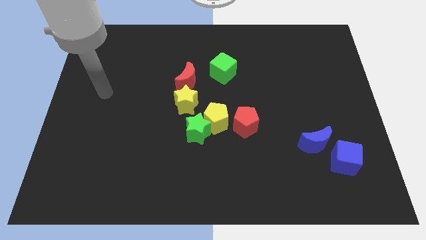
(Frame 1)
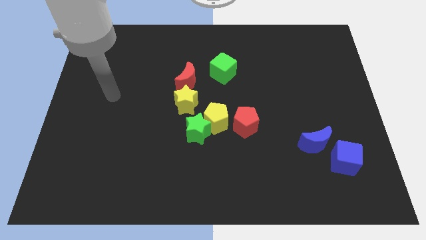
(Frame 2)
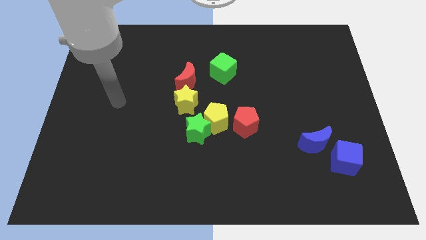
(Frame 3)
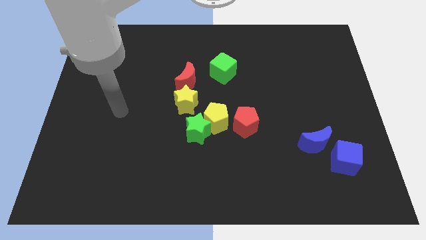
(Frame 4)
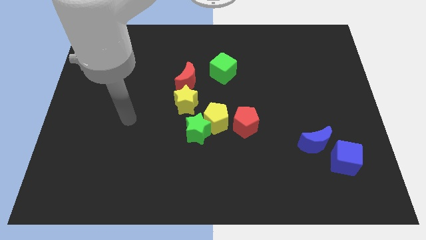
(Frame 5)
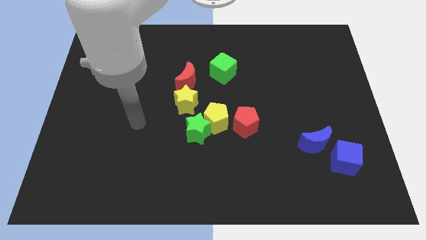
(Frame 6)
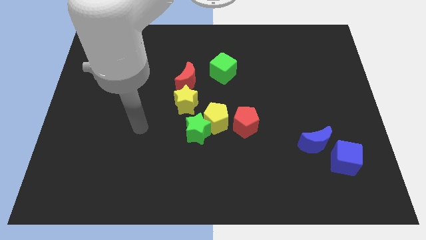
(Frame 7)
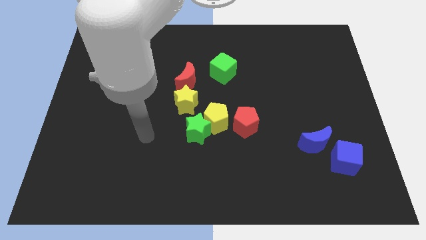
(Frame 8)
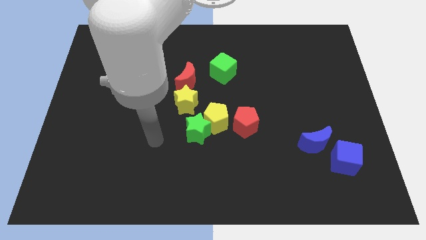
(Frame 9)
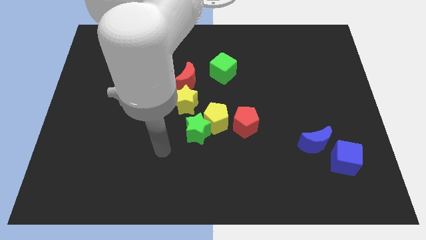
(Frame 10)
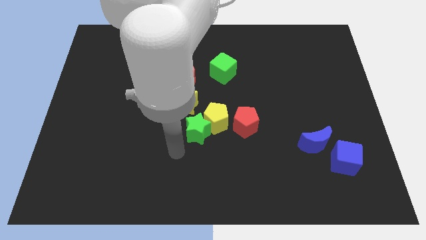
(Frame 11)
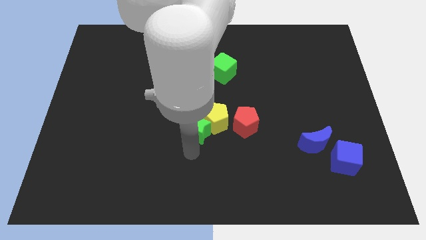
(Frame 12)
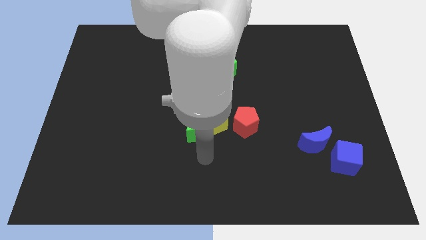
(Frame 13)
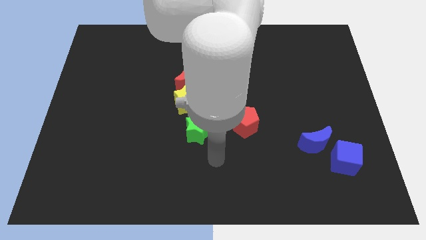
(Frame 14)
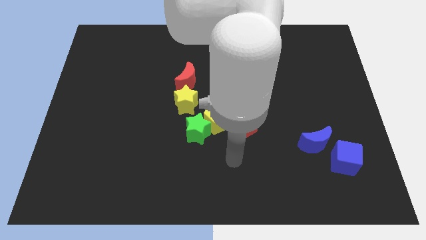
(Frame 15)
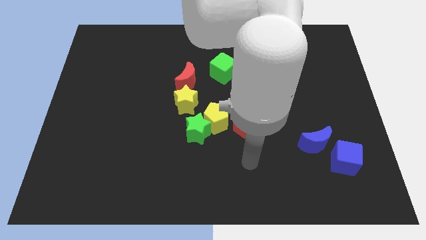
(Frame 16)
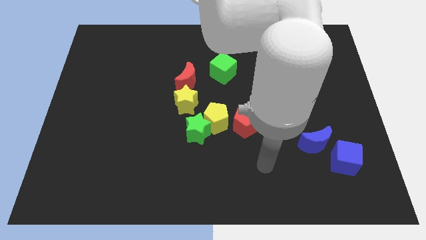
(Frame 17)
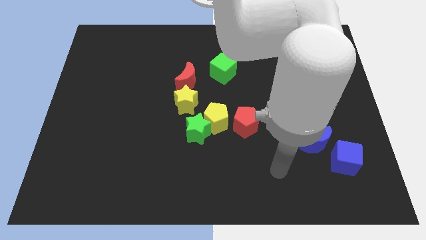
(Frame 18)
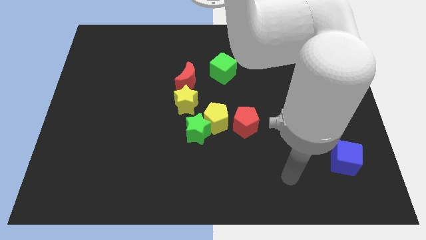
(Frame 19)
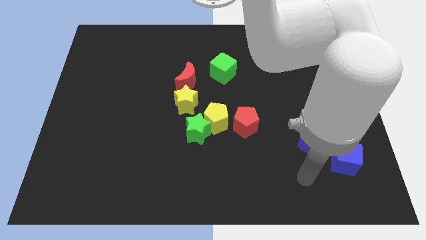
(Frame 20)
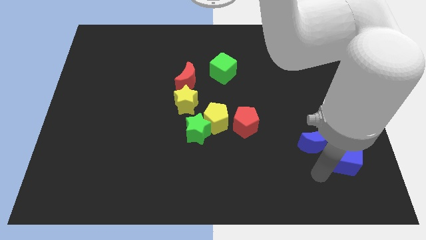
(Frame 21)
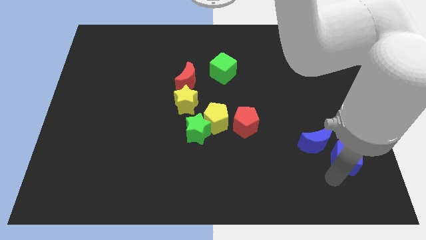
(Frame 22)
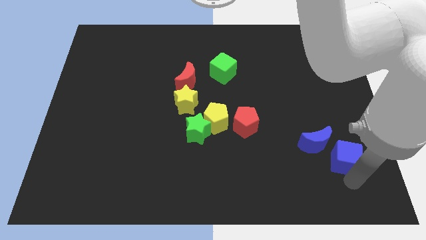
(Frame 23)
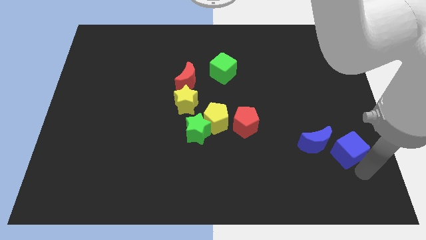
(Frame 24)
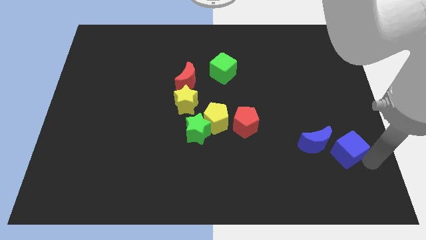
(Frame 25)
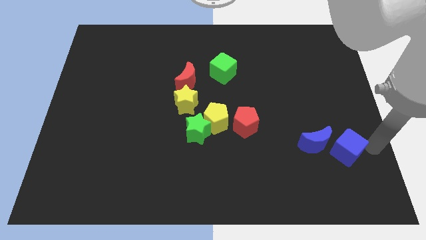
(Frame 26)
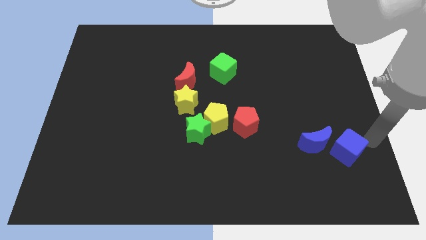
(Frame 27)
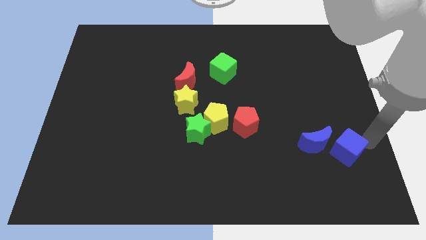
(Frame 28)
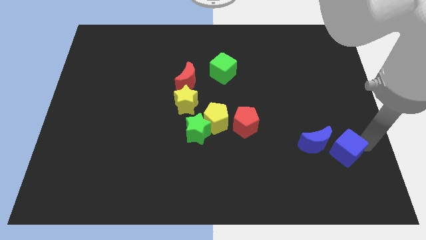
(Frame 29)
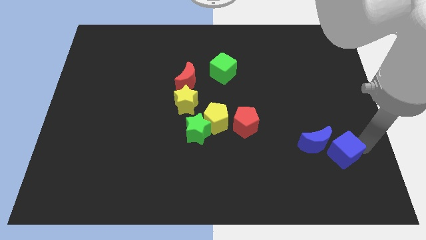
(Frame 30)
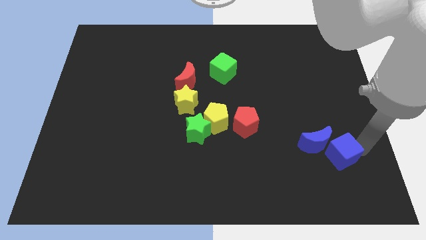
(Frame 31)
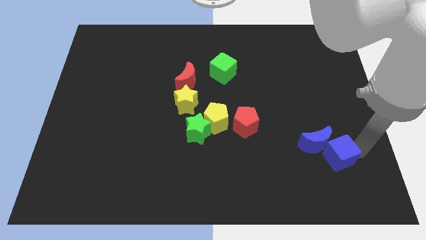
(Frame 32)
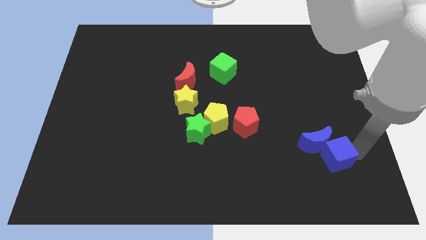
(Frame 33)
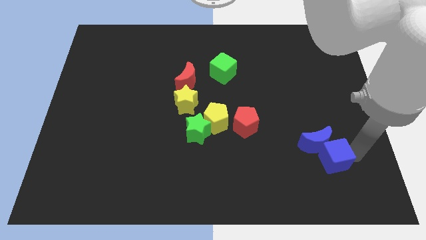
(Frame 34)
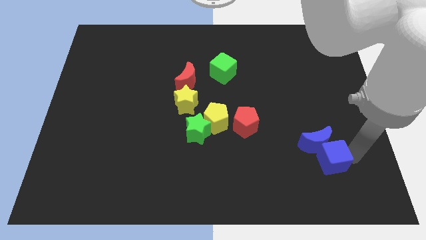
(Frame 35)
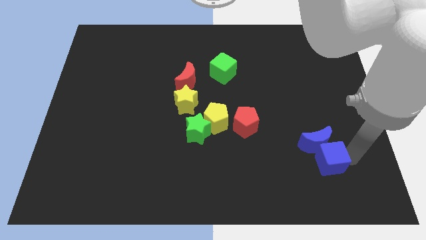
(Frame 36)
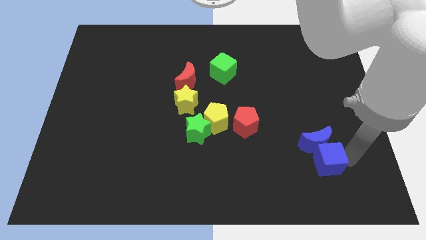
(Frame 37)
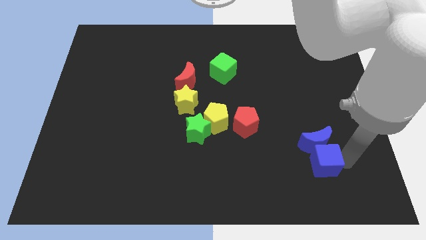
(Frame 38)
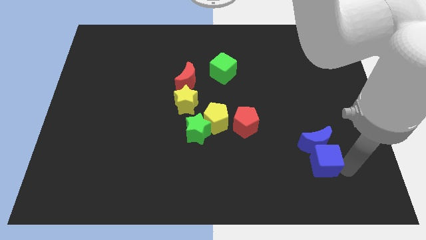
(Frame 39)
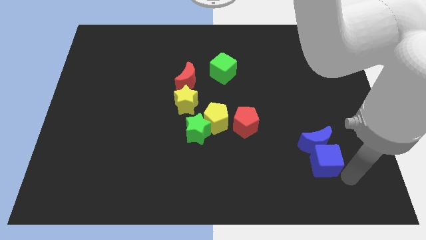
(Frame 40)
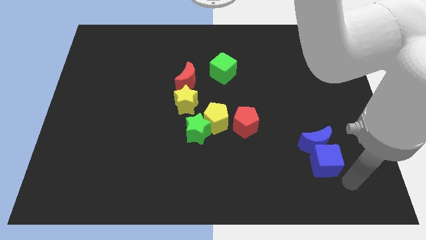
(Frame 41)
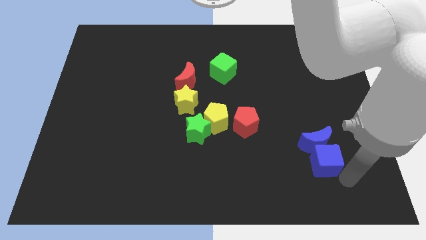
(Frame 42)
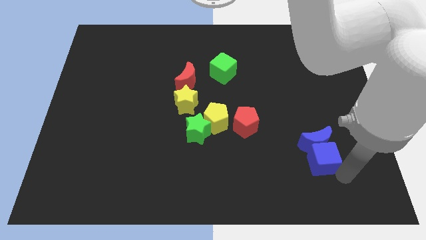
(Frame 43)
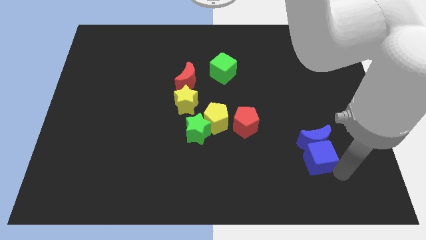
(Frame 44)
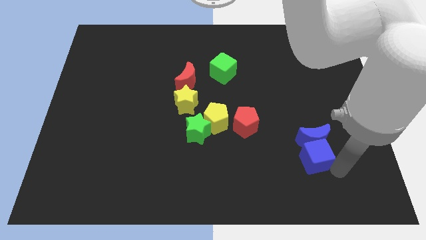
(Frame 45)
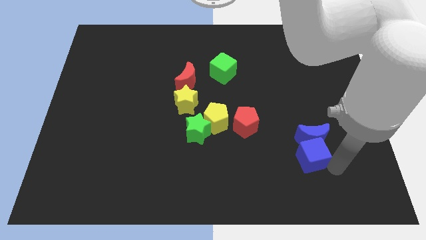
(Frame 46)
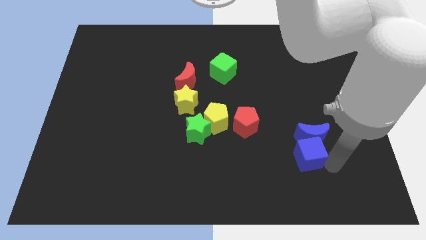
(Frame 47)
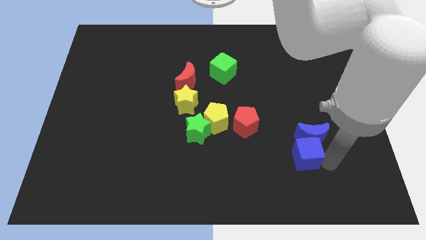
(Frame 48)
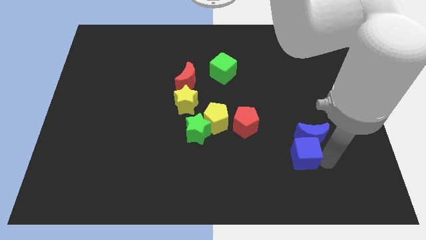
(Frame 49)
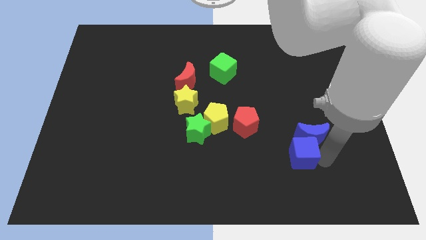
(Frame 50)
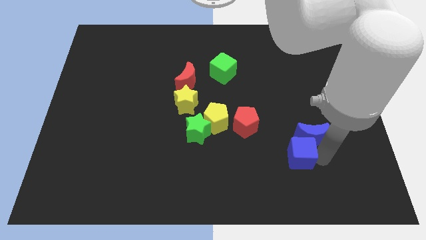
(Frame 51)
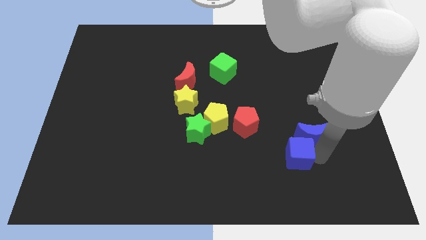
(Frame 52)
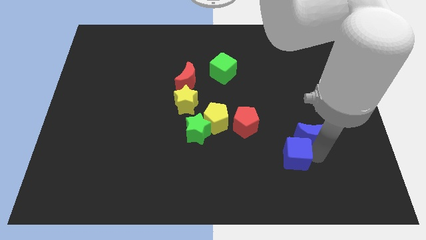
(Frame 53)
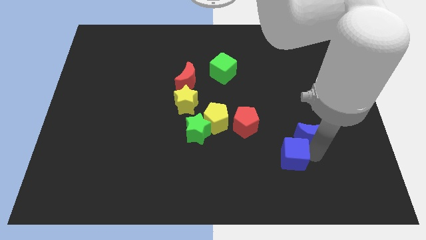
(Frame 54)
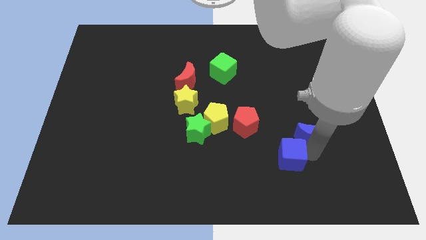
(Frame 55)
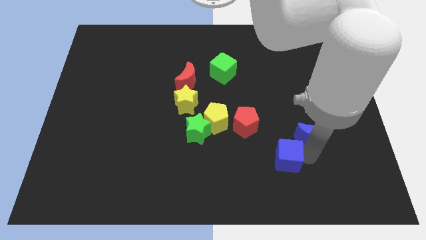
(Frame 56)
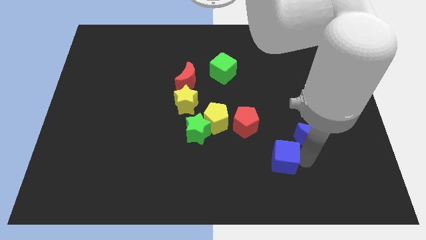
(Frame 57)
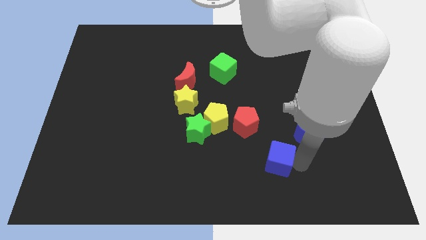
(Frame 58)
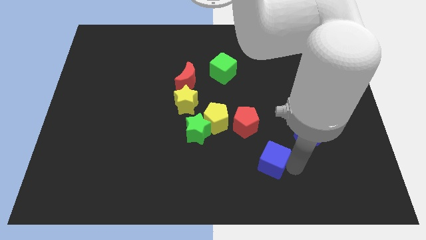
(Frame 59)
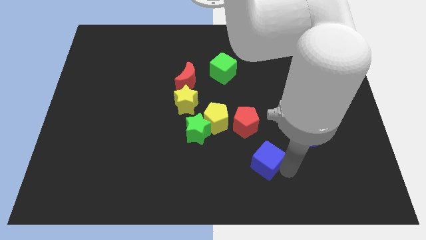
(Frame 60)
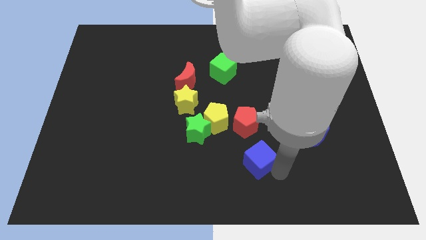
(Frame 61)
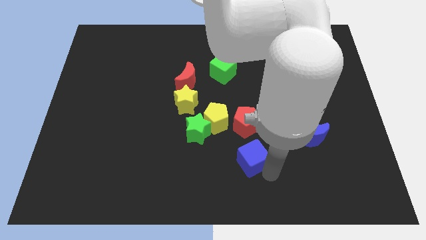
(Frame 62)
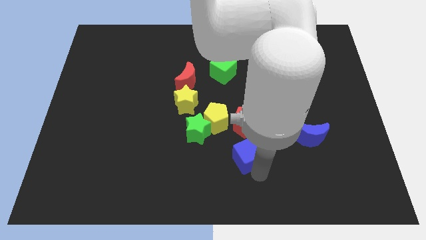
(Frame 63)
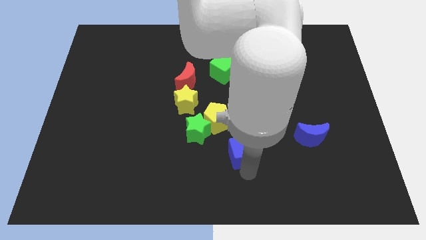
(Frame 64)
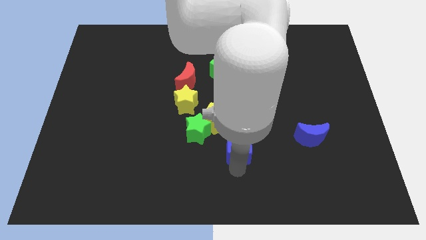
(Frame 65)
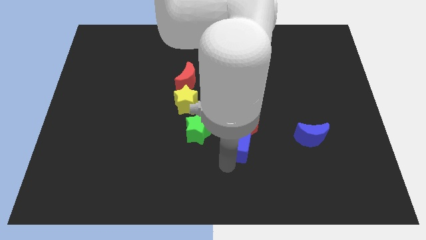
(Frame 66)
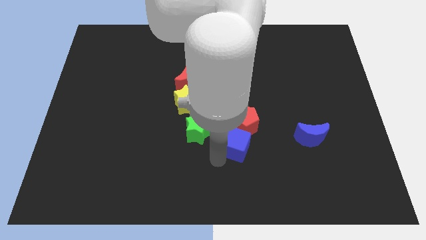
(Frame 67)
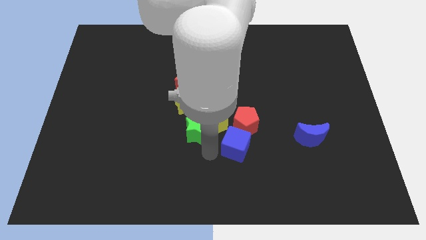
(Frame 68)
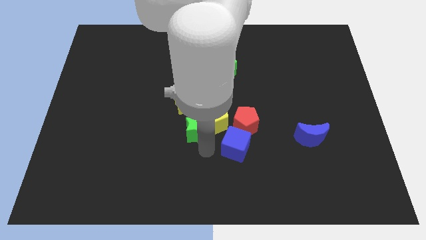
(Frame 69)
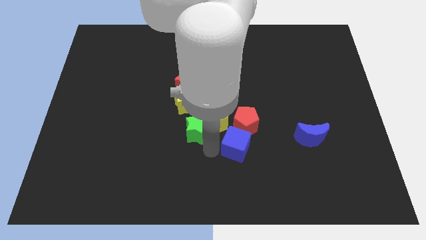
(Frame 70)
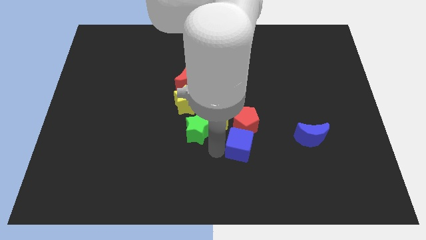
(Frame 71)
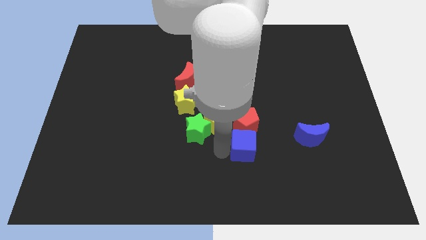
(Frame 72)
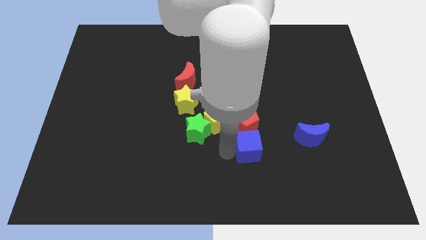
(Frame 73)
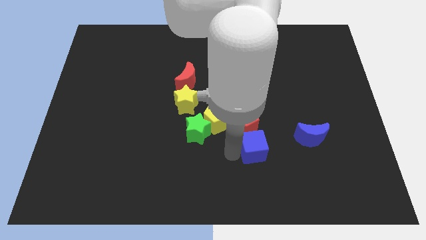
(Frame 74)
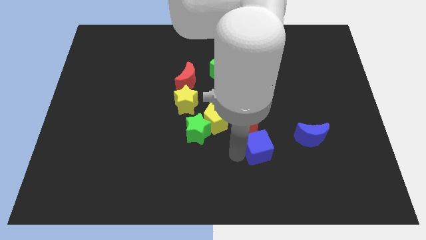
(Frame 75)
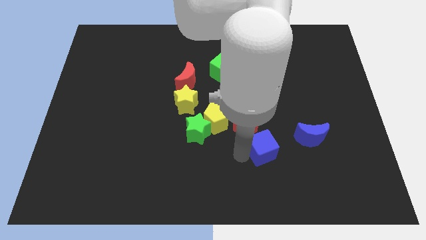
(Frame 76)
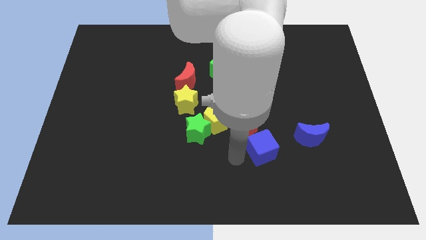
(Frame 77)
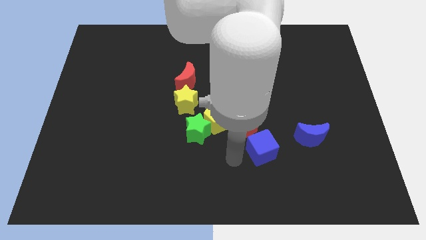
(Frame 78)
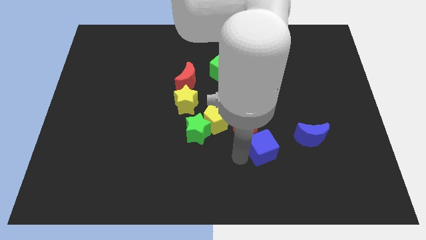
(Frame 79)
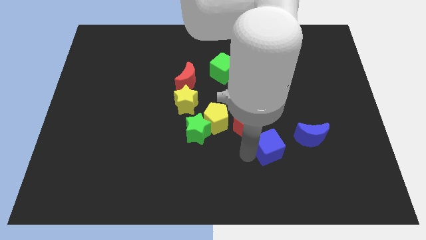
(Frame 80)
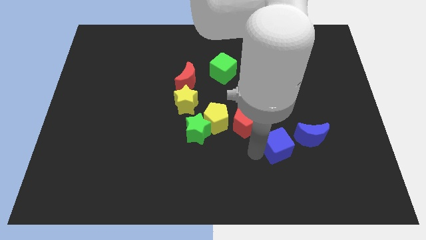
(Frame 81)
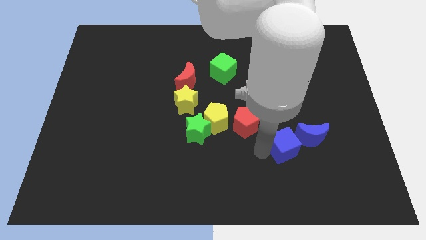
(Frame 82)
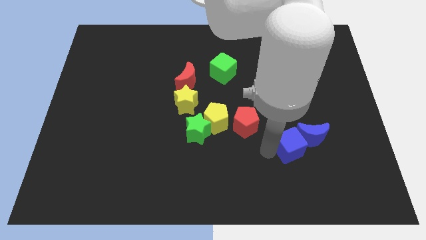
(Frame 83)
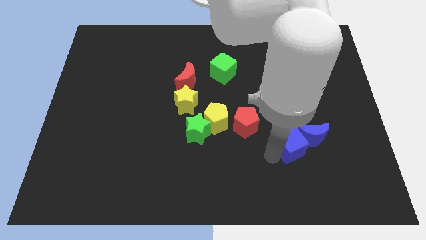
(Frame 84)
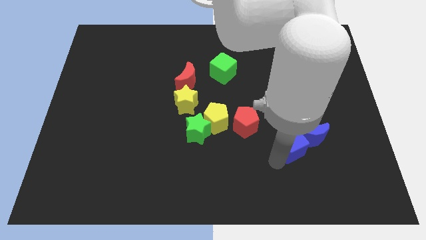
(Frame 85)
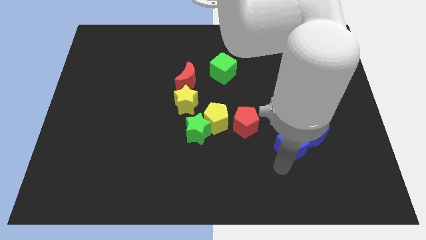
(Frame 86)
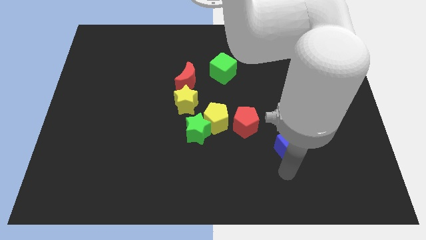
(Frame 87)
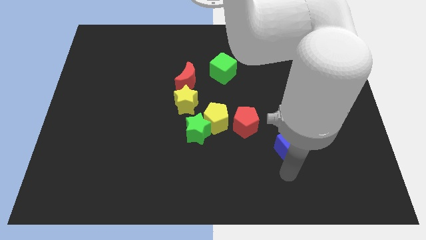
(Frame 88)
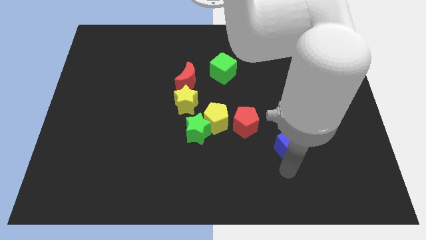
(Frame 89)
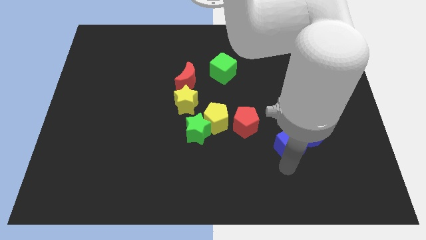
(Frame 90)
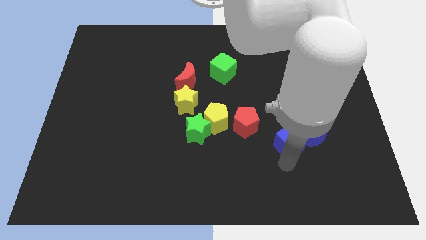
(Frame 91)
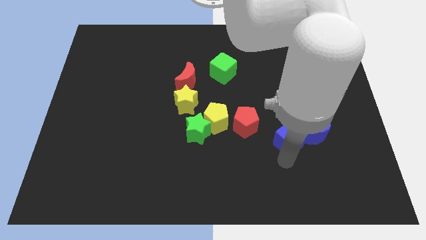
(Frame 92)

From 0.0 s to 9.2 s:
push the blue cube to the right of the red pentagon
